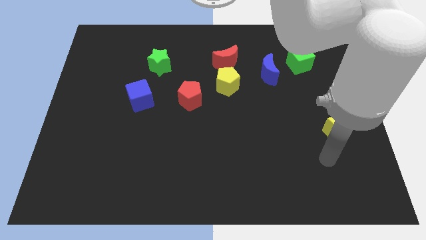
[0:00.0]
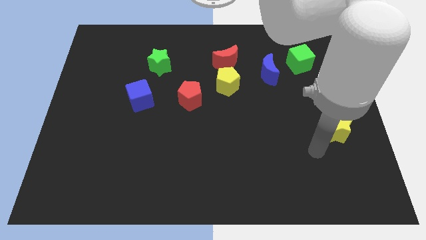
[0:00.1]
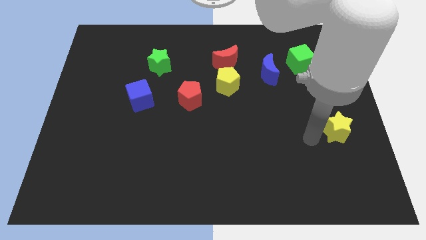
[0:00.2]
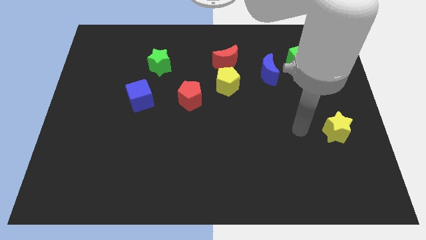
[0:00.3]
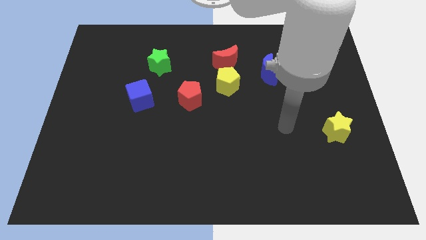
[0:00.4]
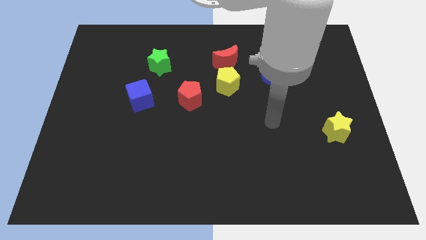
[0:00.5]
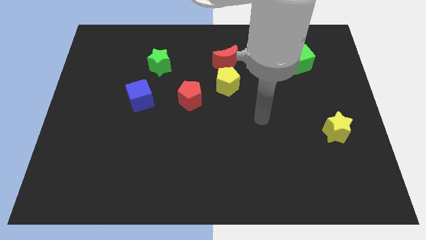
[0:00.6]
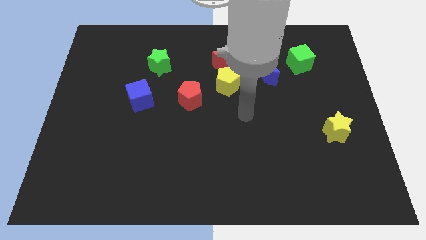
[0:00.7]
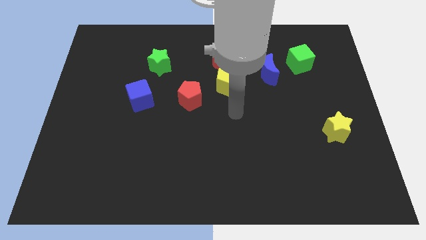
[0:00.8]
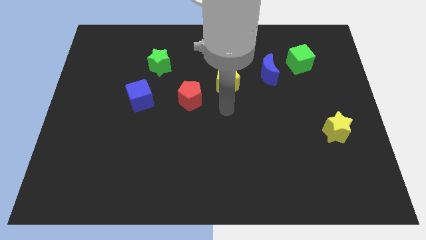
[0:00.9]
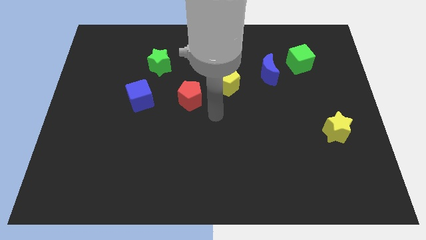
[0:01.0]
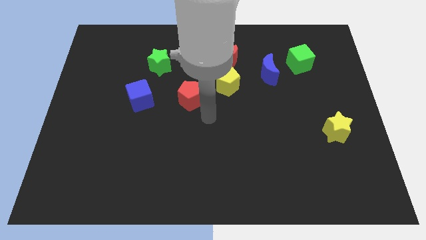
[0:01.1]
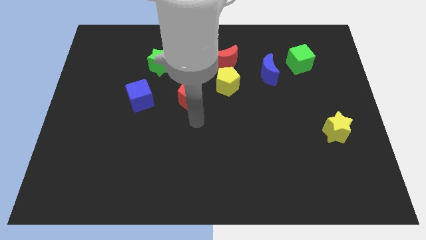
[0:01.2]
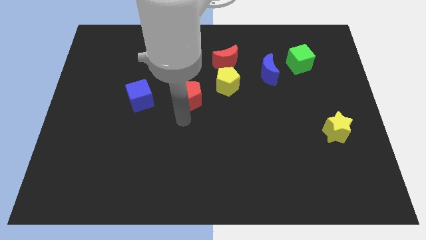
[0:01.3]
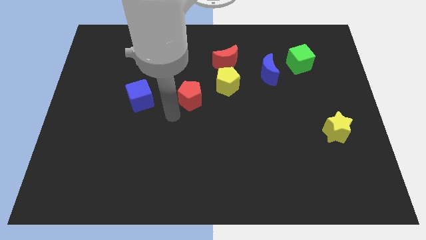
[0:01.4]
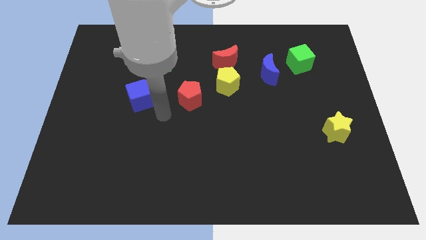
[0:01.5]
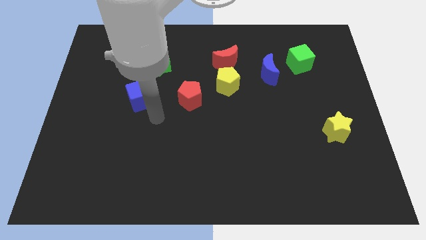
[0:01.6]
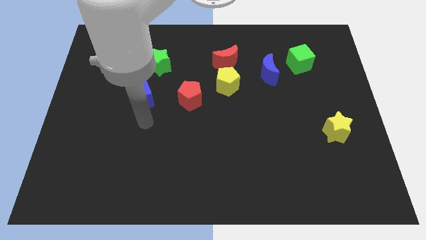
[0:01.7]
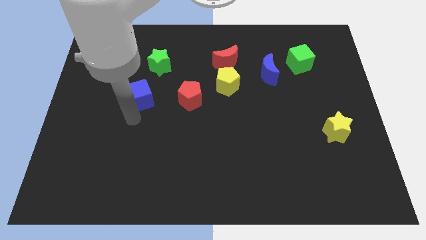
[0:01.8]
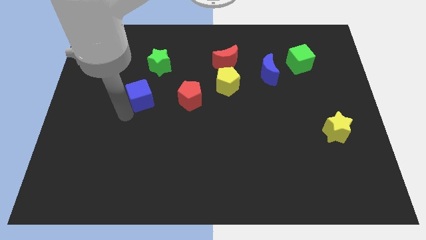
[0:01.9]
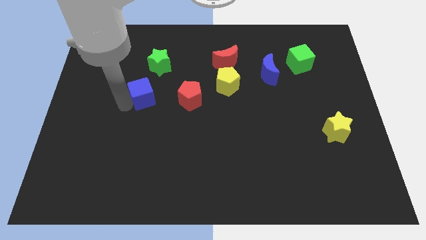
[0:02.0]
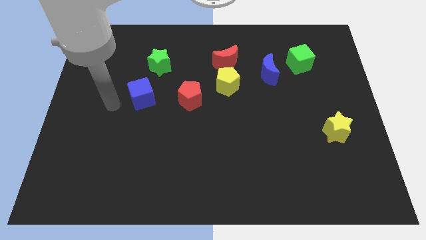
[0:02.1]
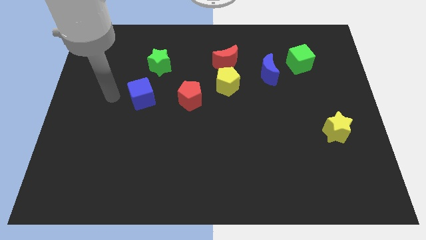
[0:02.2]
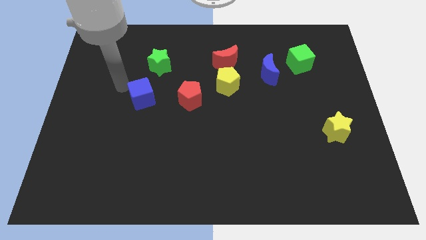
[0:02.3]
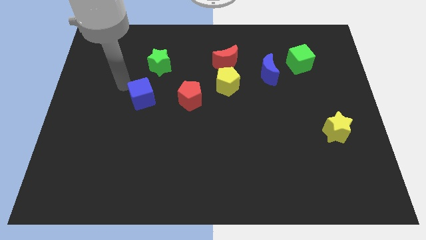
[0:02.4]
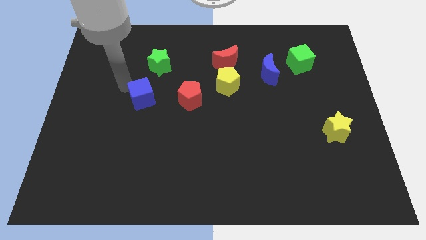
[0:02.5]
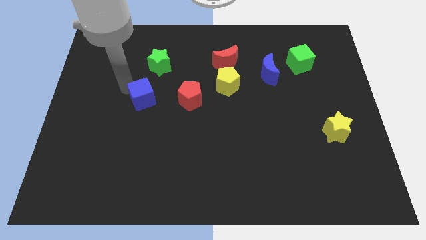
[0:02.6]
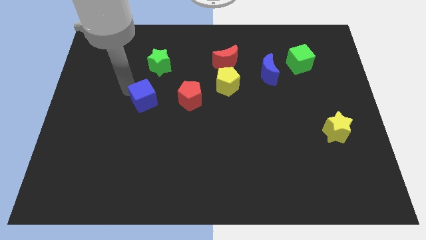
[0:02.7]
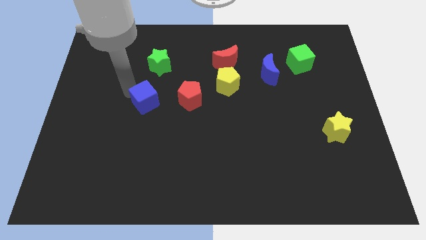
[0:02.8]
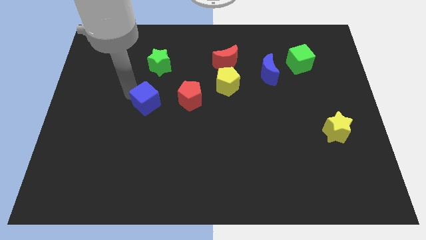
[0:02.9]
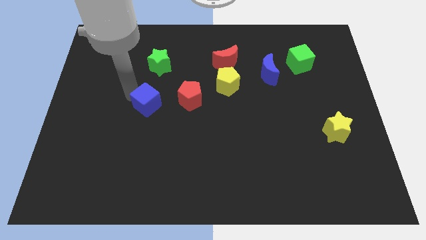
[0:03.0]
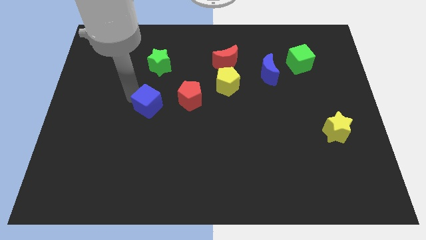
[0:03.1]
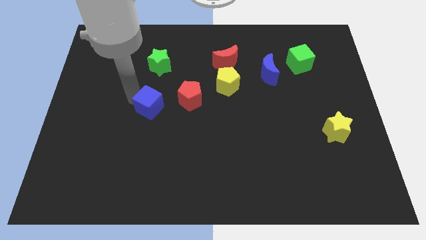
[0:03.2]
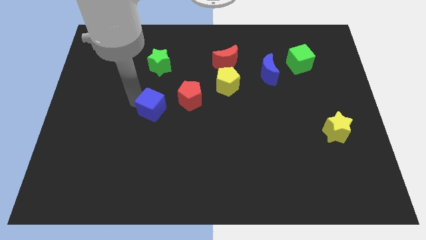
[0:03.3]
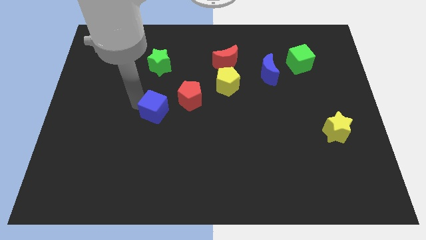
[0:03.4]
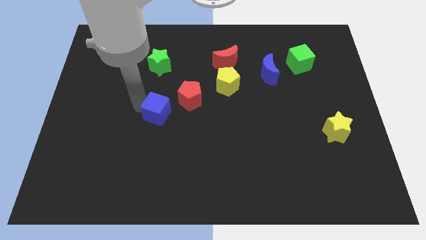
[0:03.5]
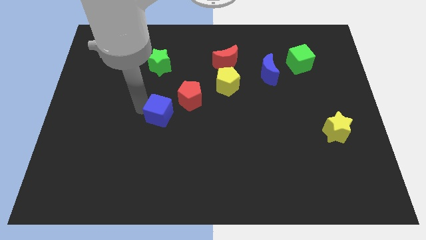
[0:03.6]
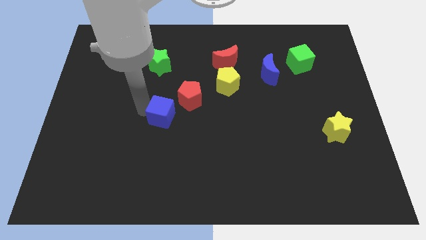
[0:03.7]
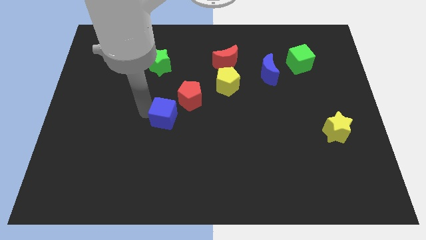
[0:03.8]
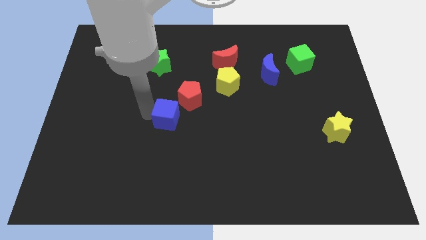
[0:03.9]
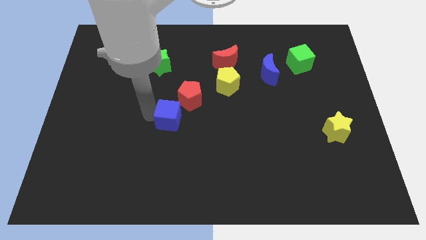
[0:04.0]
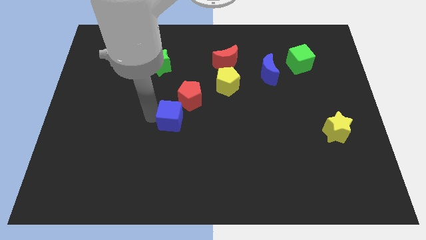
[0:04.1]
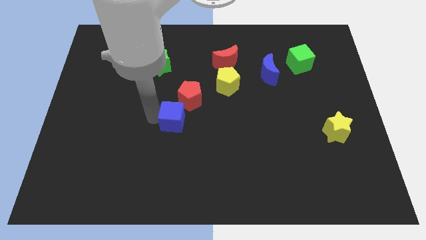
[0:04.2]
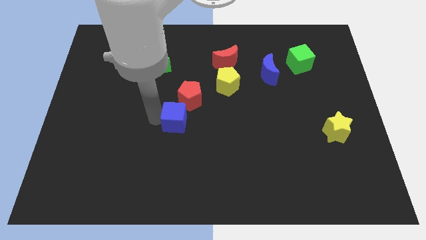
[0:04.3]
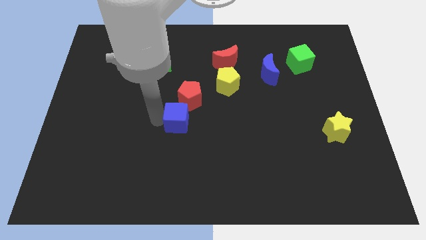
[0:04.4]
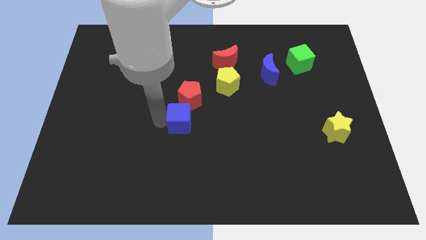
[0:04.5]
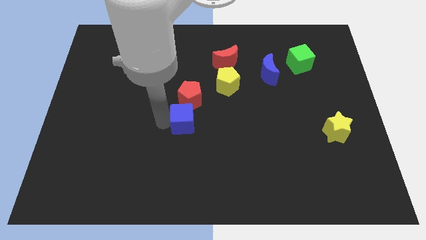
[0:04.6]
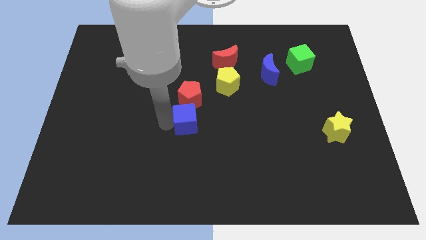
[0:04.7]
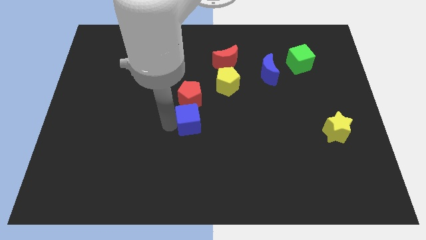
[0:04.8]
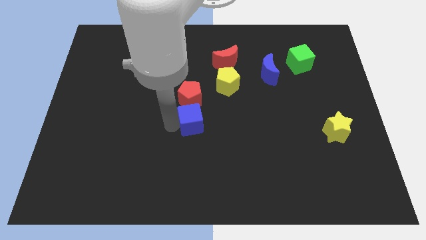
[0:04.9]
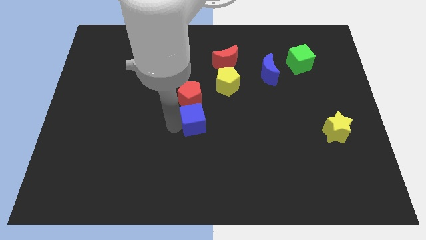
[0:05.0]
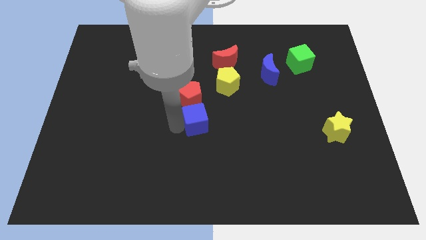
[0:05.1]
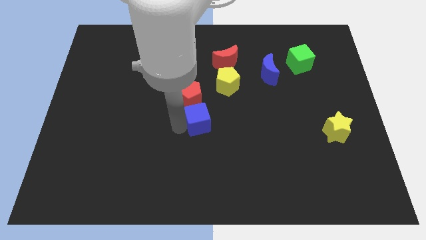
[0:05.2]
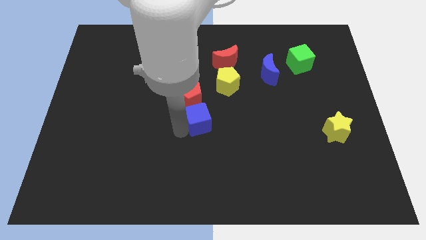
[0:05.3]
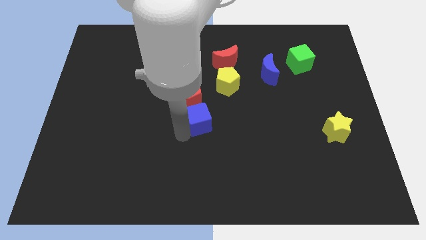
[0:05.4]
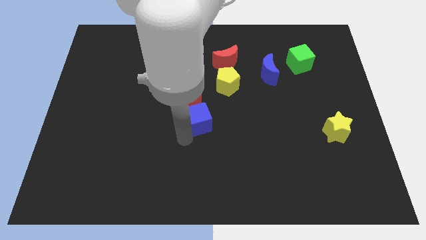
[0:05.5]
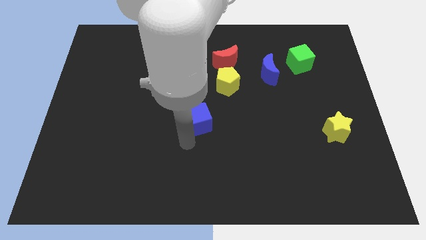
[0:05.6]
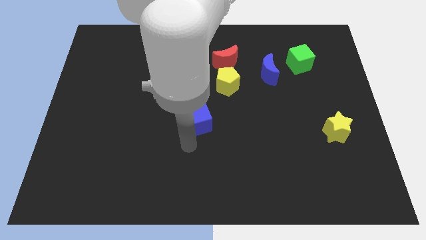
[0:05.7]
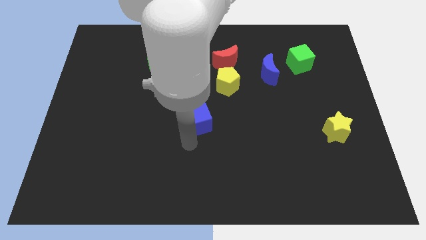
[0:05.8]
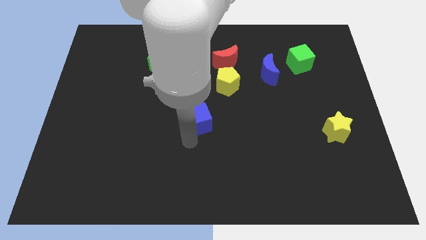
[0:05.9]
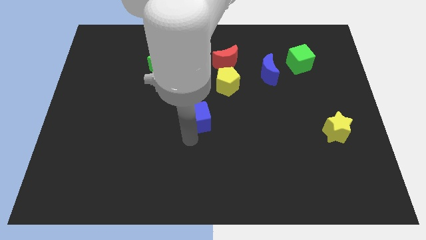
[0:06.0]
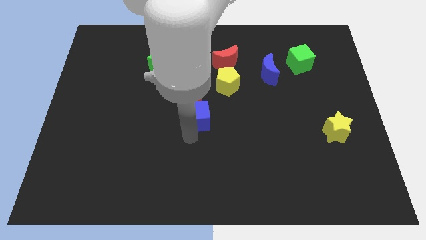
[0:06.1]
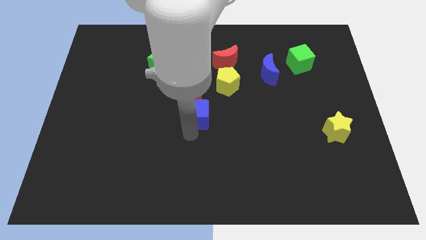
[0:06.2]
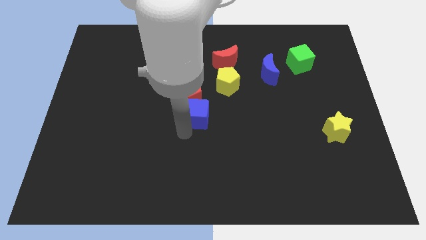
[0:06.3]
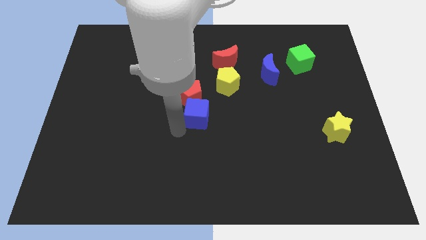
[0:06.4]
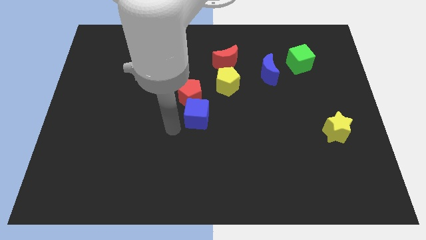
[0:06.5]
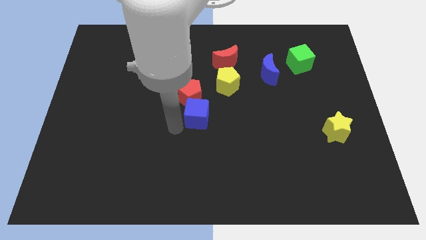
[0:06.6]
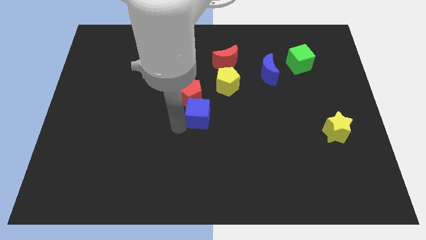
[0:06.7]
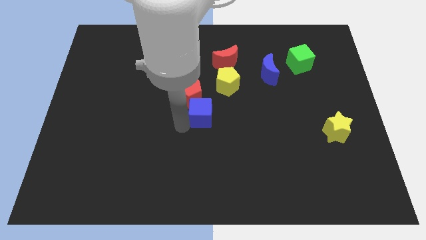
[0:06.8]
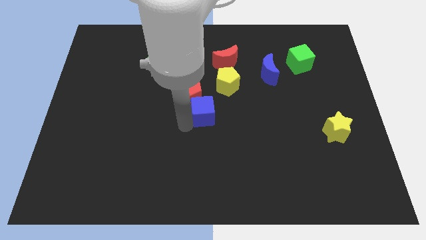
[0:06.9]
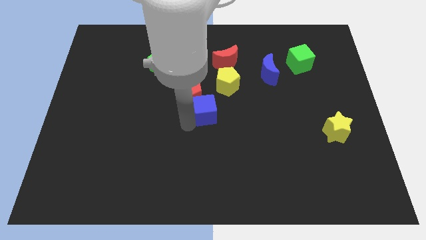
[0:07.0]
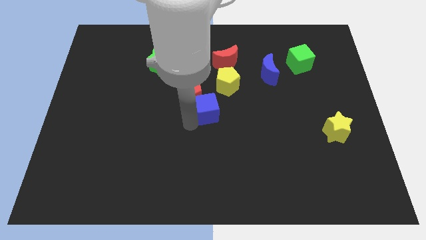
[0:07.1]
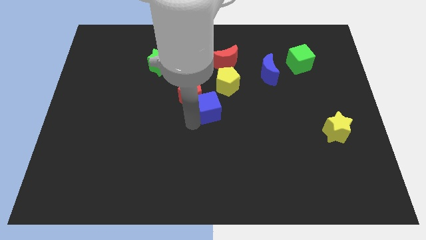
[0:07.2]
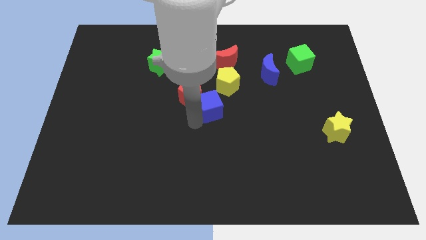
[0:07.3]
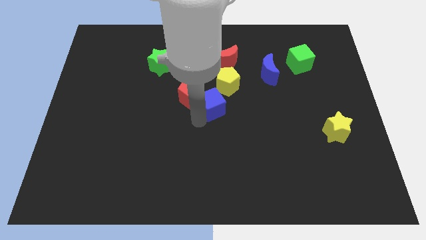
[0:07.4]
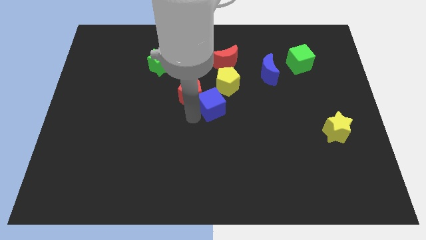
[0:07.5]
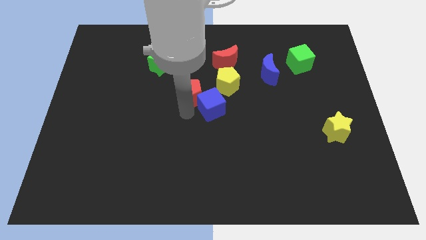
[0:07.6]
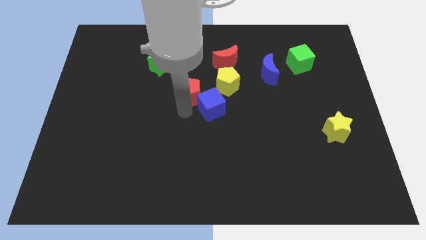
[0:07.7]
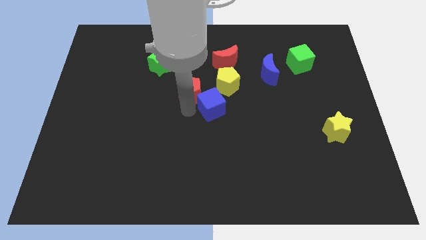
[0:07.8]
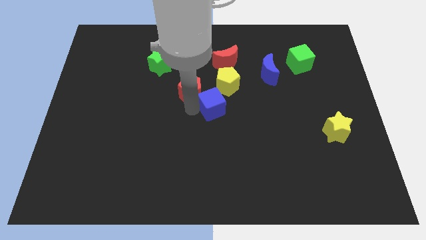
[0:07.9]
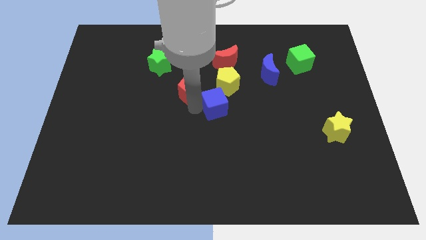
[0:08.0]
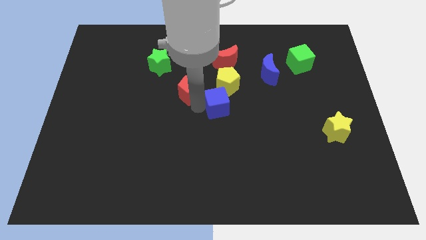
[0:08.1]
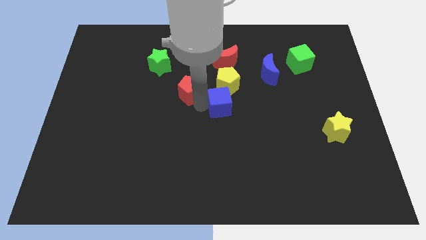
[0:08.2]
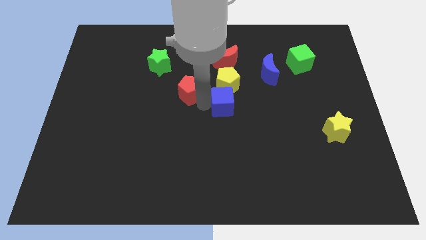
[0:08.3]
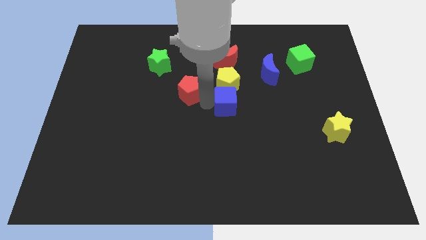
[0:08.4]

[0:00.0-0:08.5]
push the blue cube right
